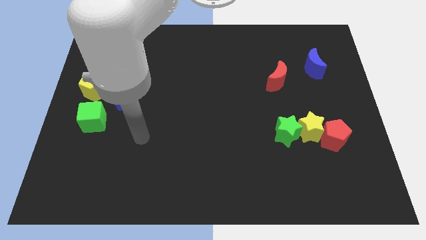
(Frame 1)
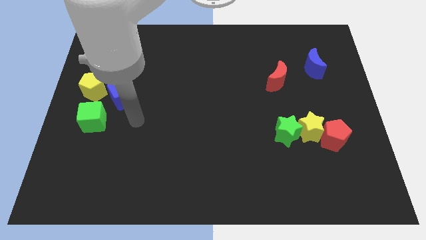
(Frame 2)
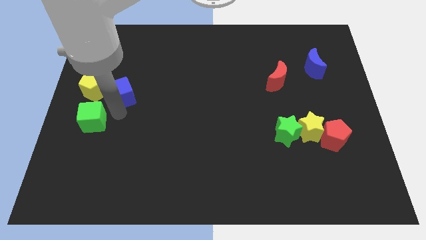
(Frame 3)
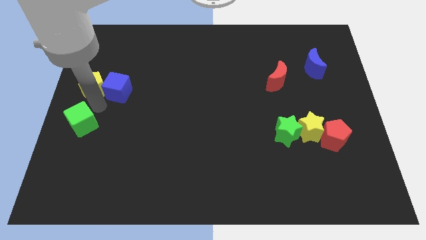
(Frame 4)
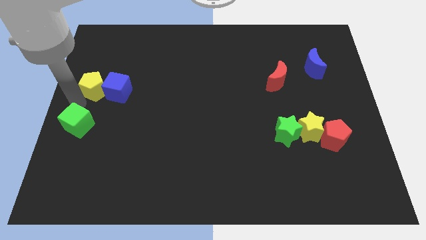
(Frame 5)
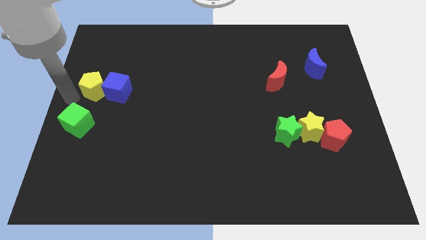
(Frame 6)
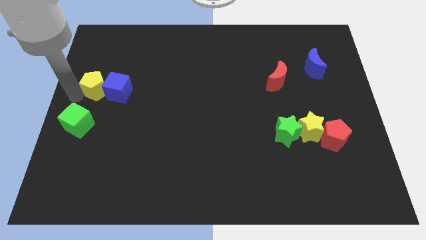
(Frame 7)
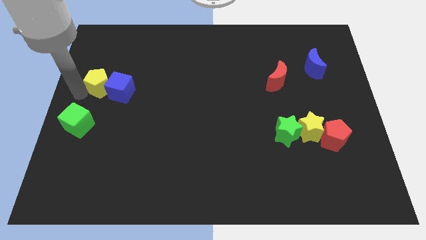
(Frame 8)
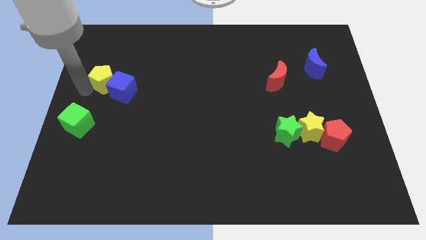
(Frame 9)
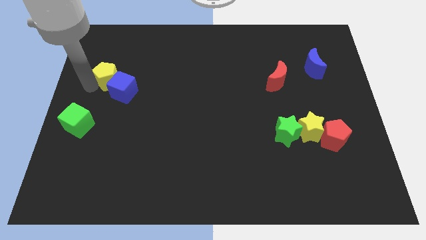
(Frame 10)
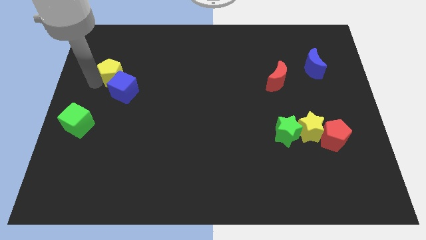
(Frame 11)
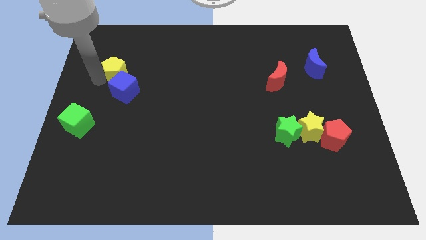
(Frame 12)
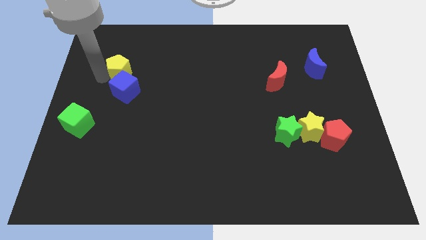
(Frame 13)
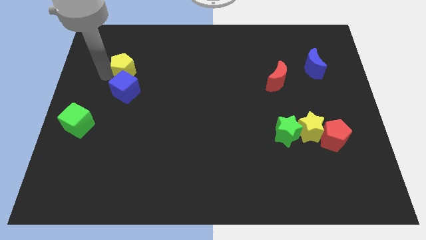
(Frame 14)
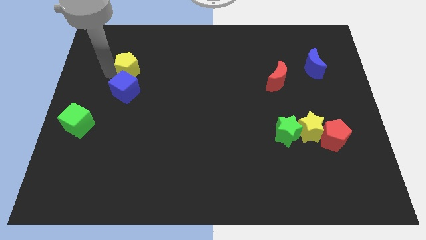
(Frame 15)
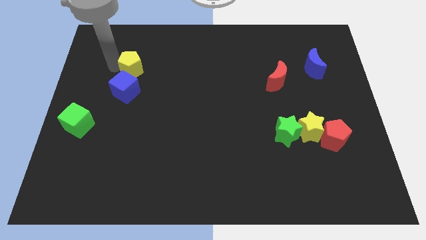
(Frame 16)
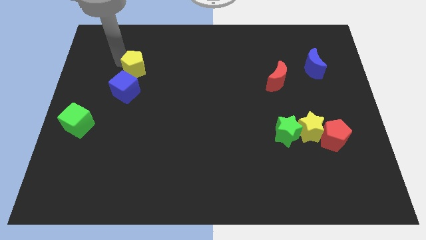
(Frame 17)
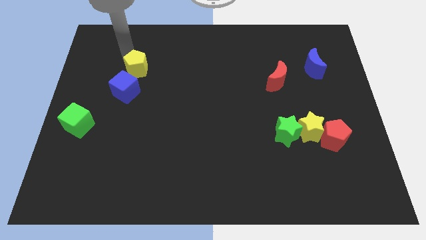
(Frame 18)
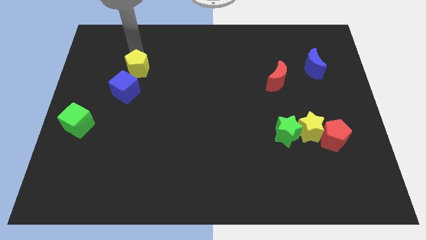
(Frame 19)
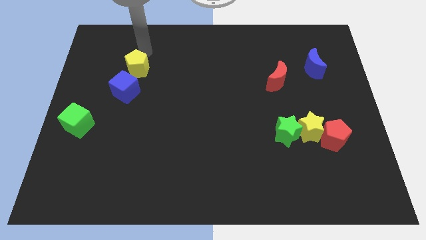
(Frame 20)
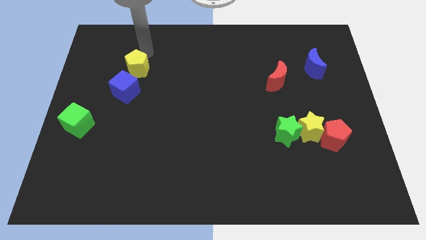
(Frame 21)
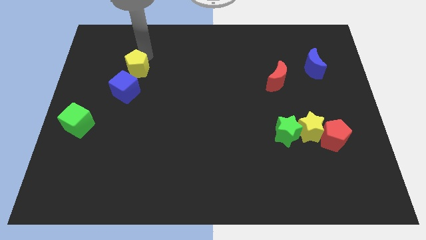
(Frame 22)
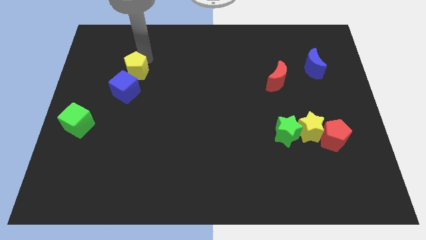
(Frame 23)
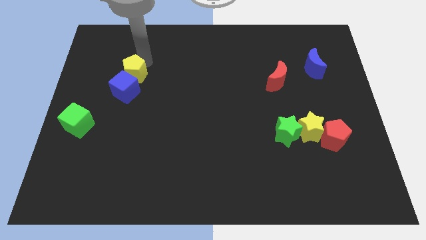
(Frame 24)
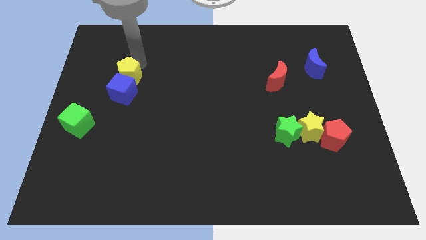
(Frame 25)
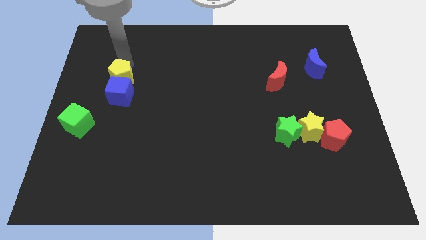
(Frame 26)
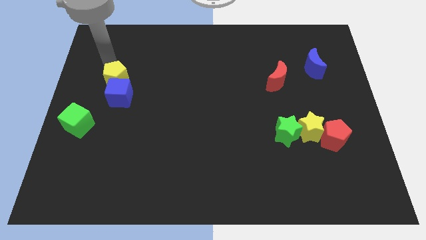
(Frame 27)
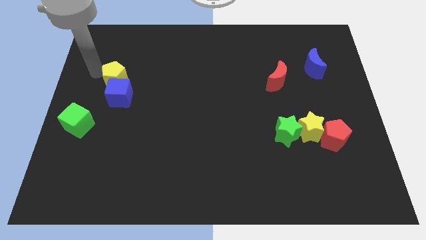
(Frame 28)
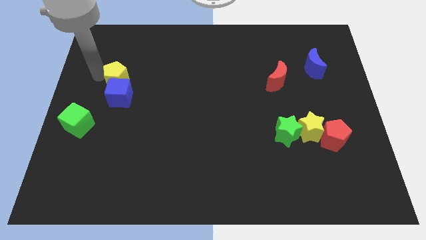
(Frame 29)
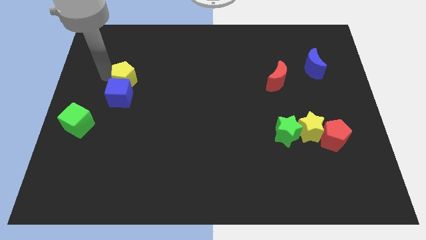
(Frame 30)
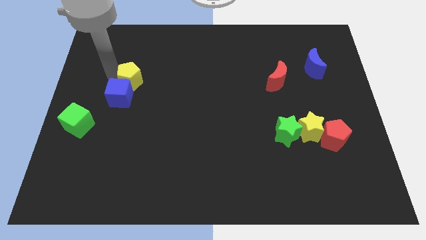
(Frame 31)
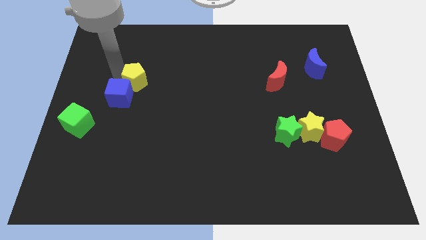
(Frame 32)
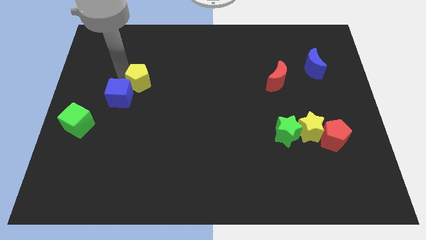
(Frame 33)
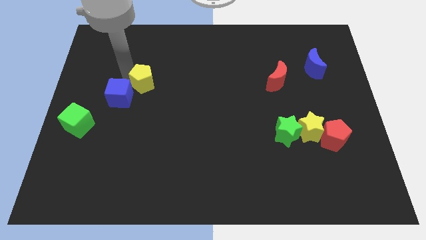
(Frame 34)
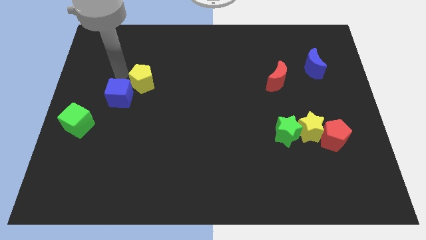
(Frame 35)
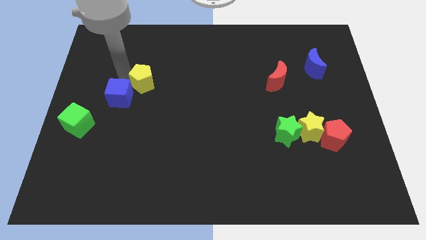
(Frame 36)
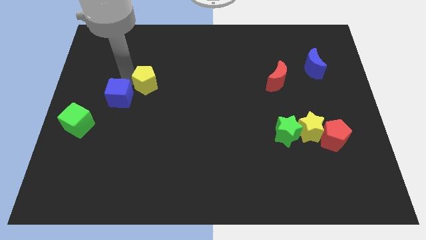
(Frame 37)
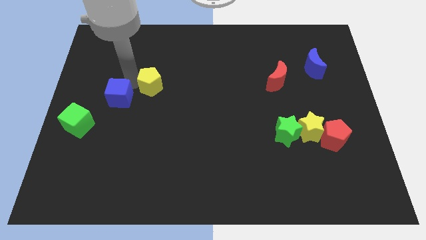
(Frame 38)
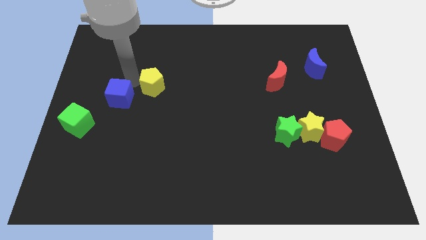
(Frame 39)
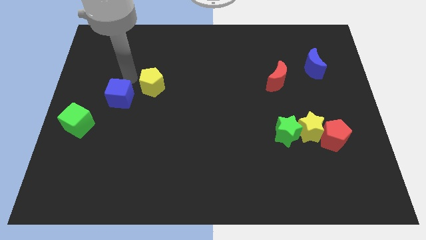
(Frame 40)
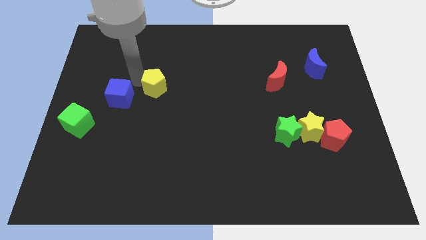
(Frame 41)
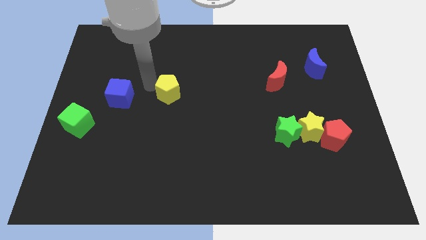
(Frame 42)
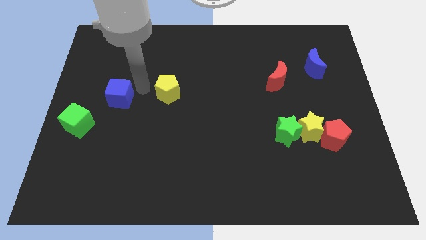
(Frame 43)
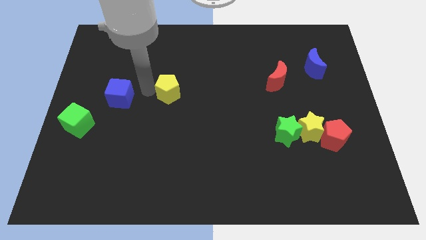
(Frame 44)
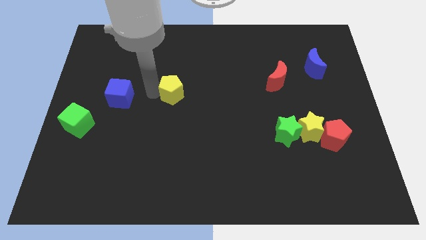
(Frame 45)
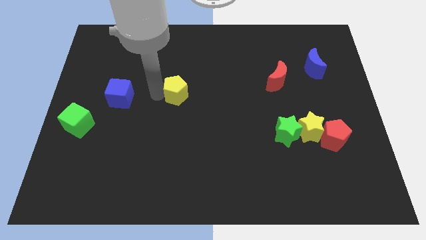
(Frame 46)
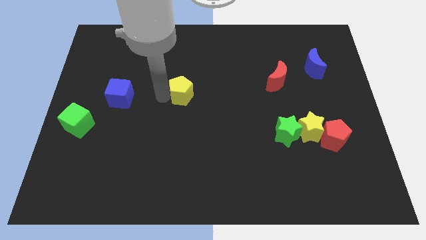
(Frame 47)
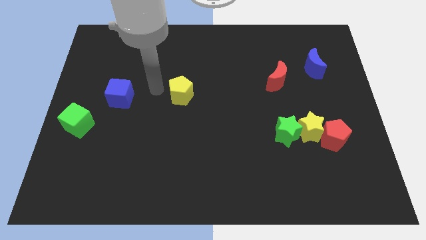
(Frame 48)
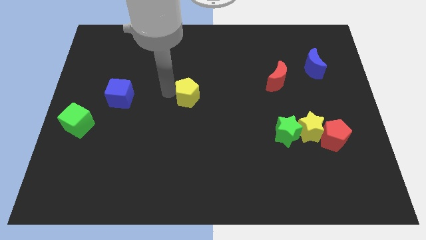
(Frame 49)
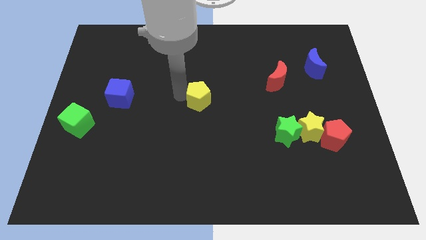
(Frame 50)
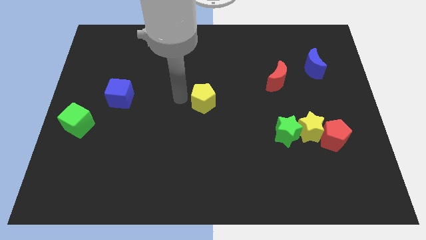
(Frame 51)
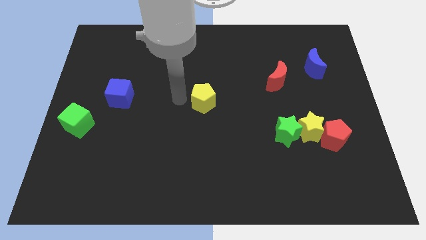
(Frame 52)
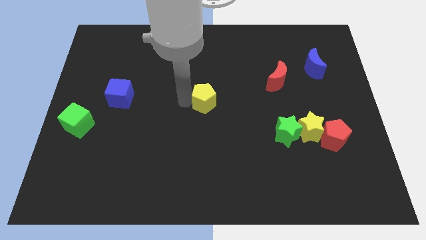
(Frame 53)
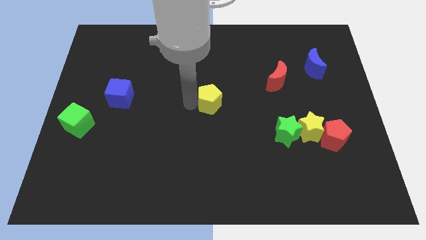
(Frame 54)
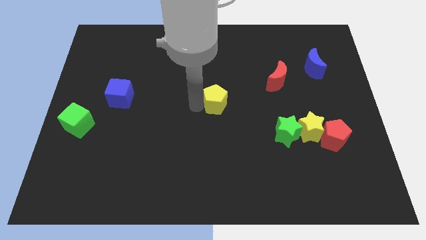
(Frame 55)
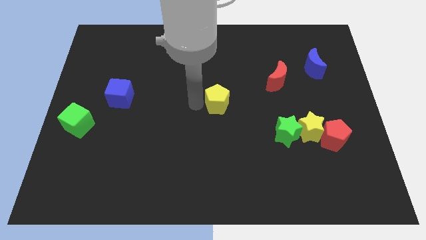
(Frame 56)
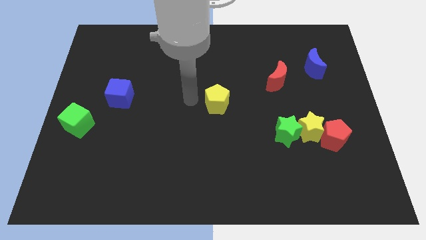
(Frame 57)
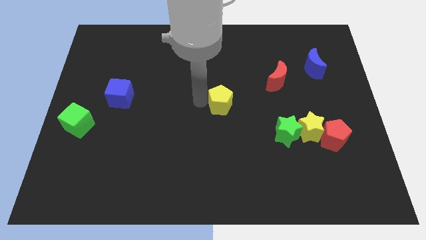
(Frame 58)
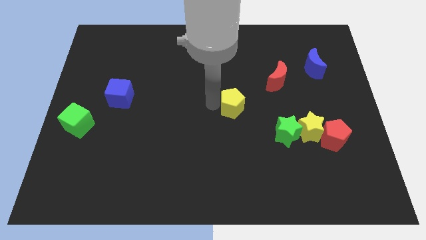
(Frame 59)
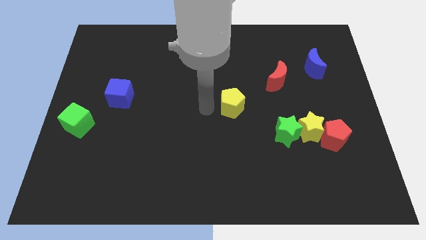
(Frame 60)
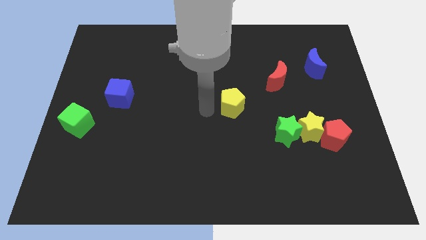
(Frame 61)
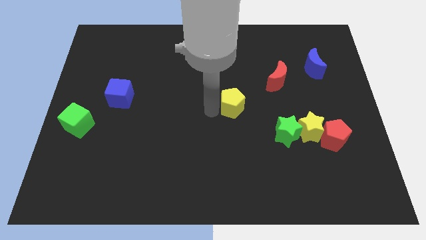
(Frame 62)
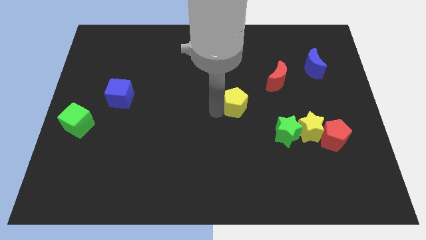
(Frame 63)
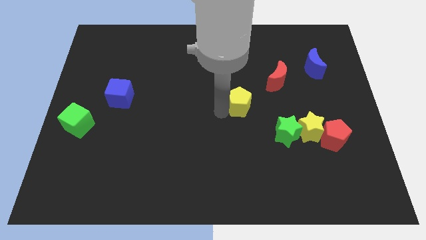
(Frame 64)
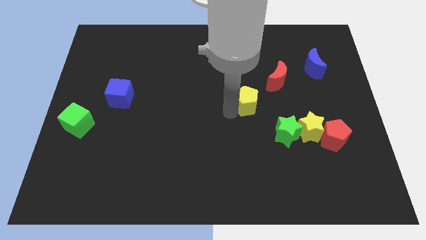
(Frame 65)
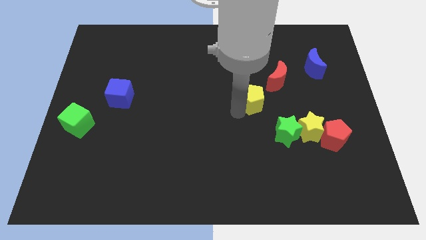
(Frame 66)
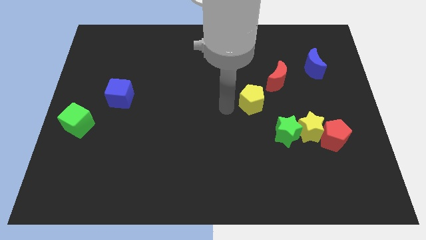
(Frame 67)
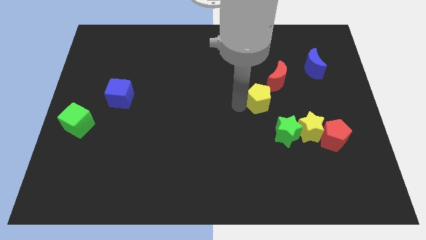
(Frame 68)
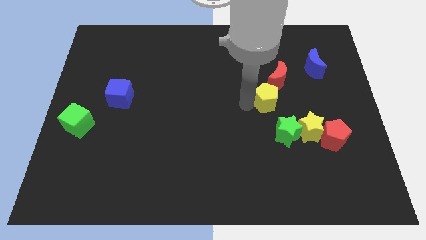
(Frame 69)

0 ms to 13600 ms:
push the yellow pentagon to the top of the green star
